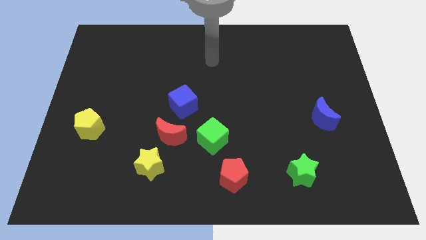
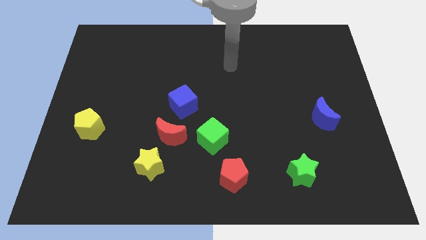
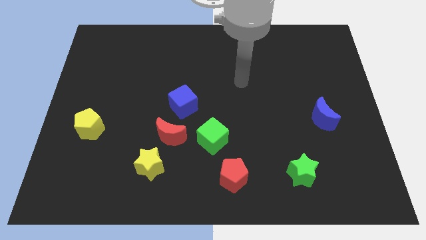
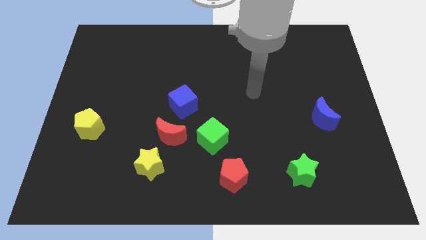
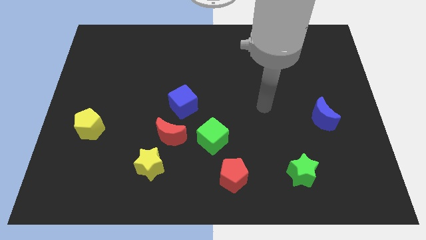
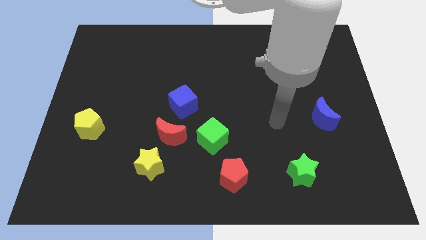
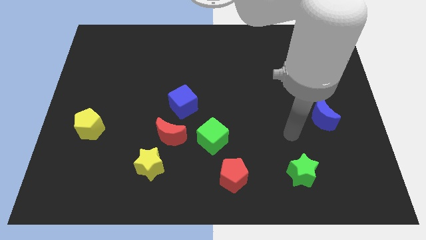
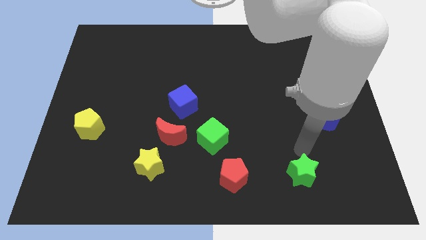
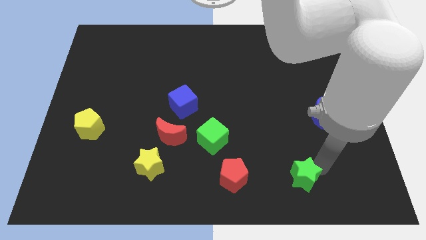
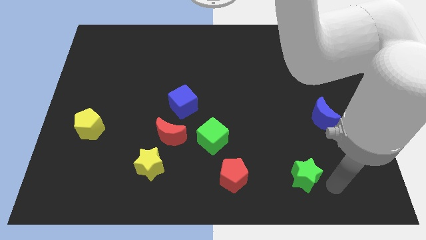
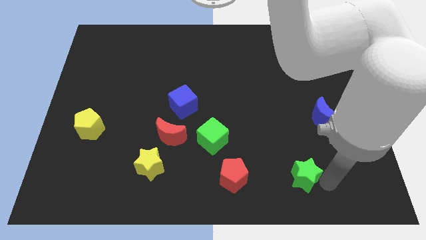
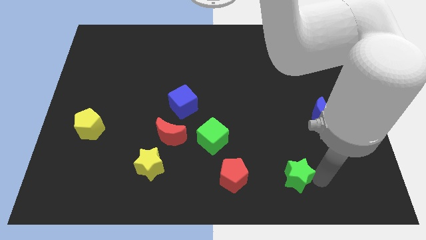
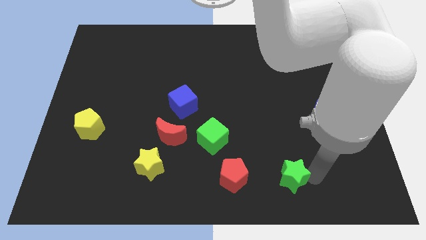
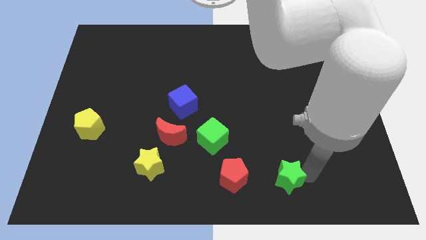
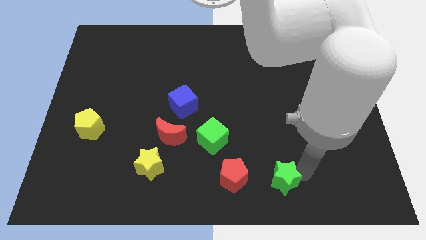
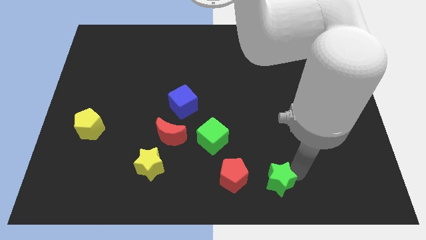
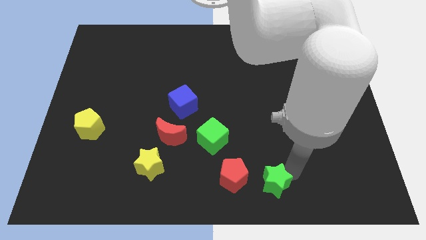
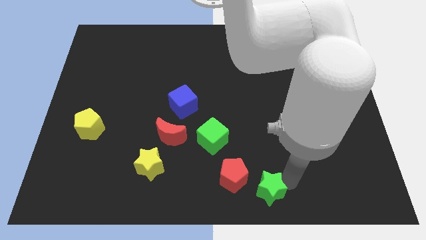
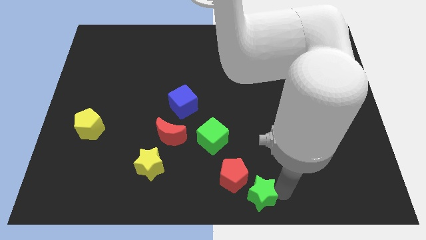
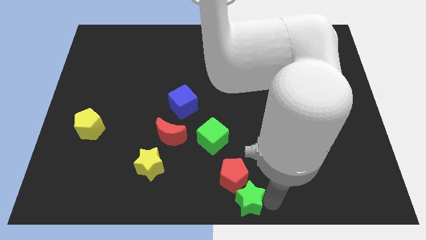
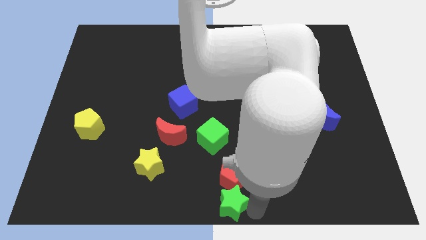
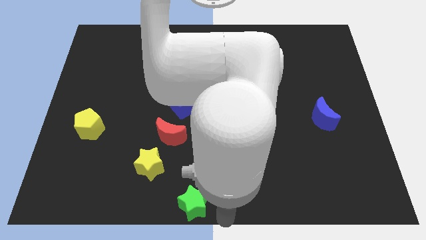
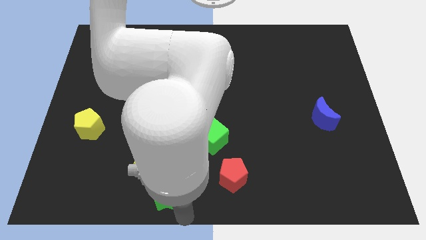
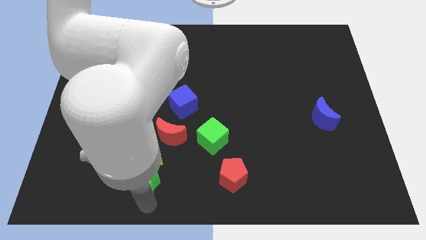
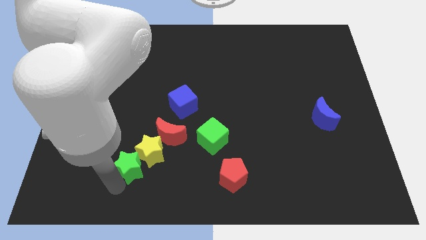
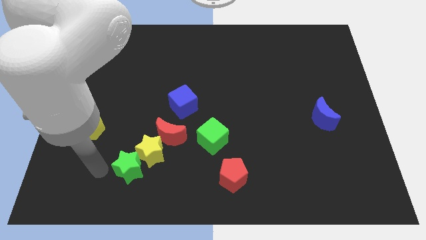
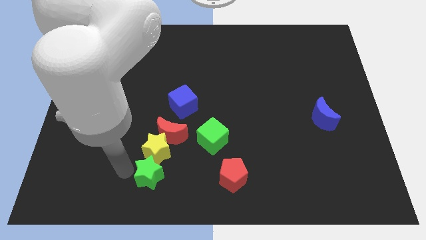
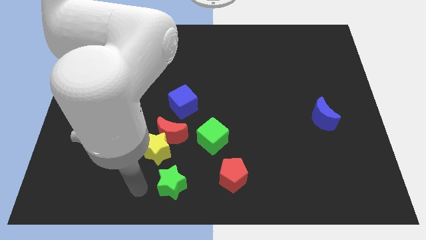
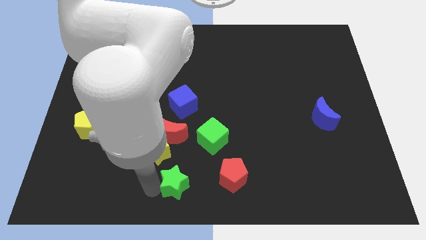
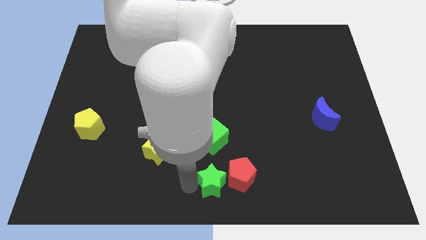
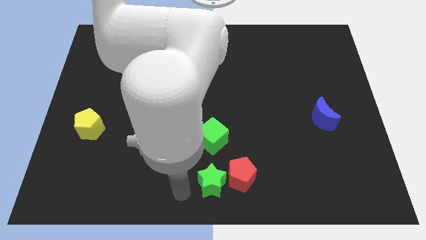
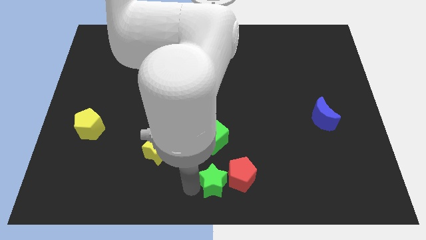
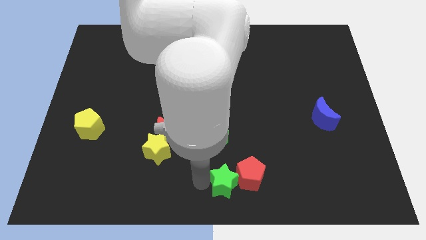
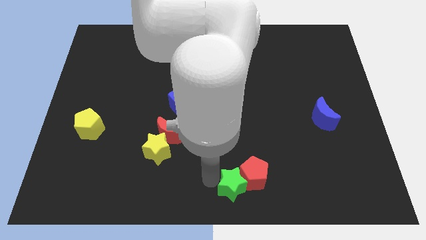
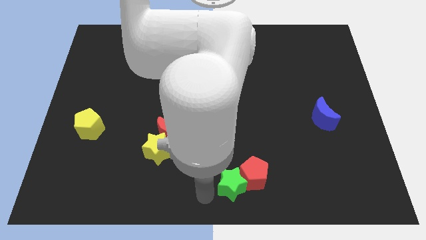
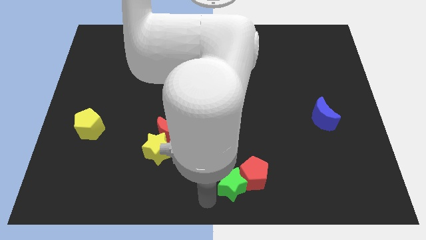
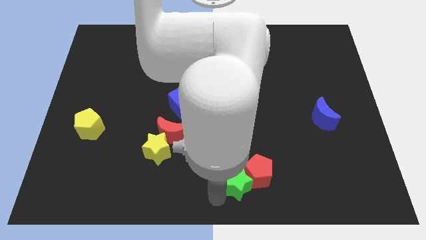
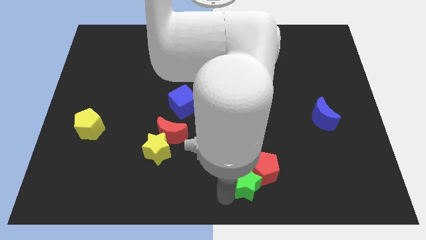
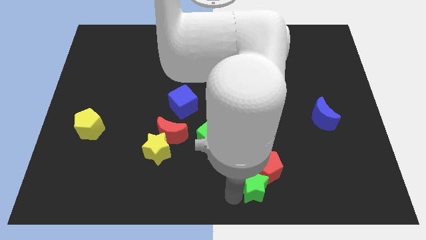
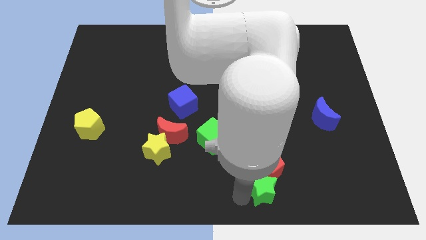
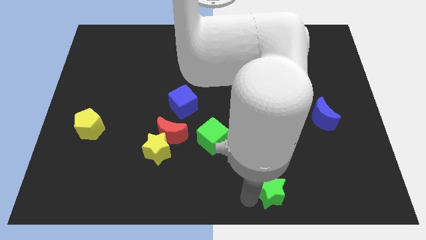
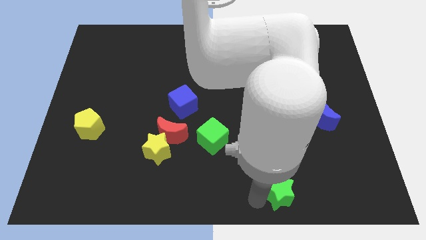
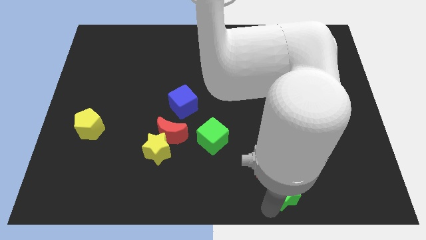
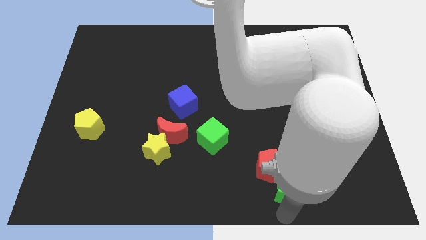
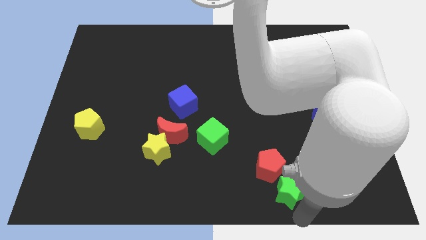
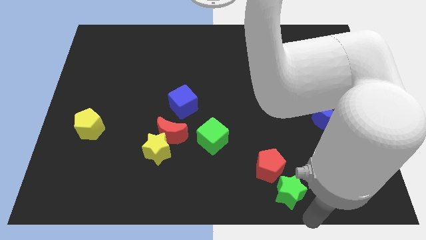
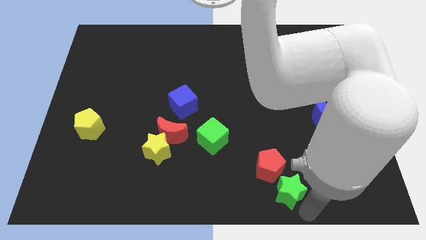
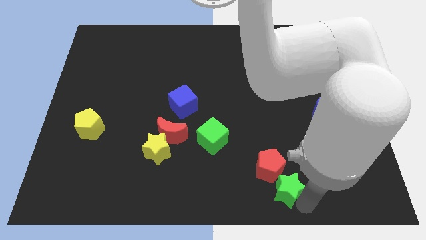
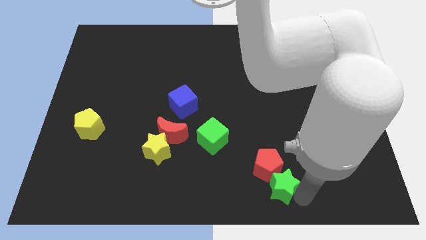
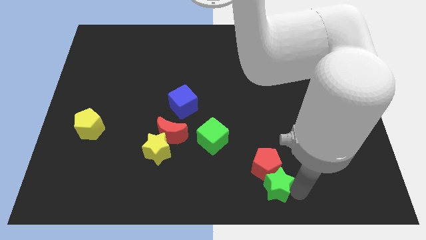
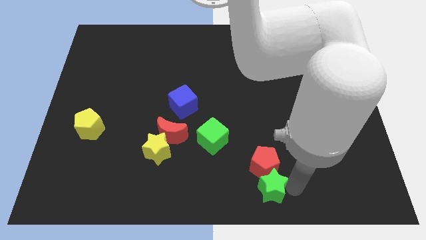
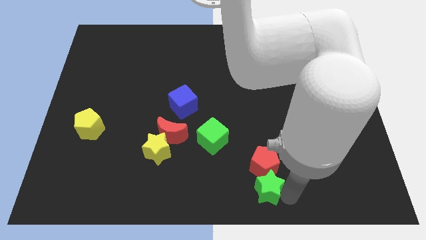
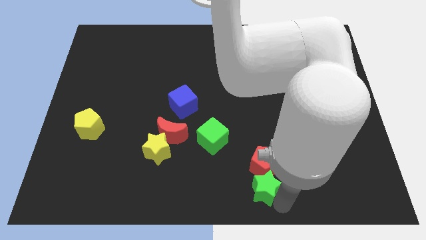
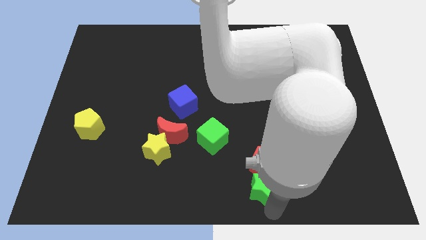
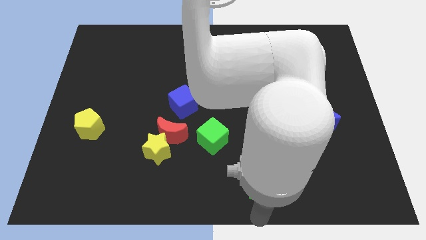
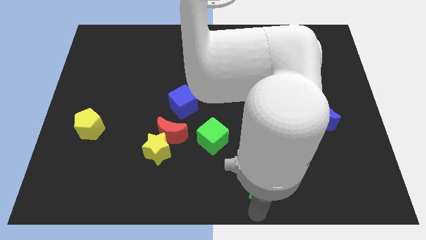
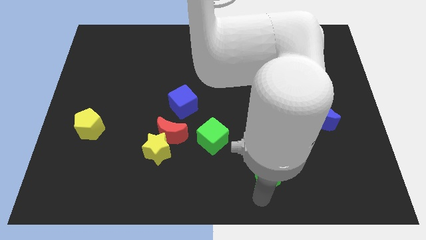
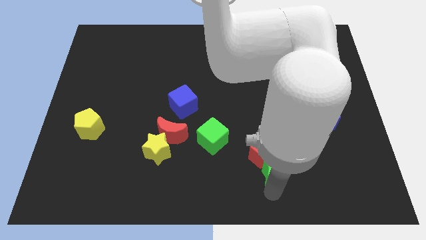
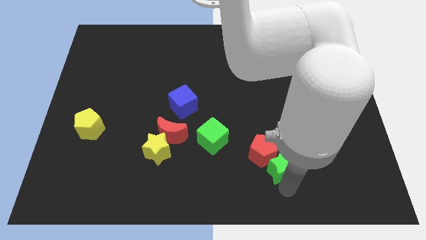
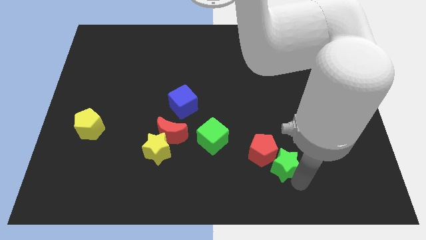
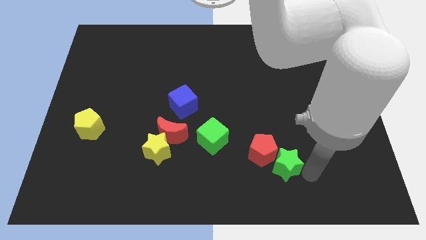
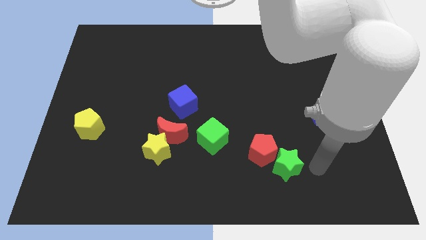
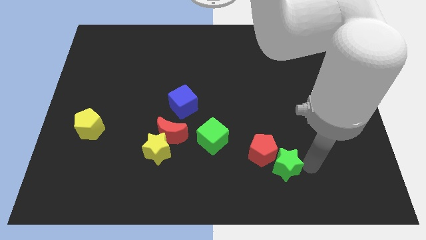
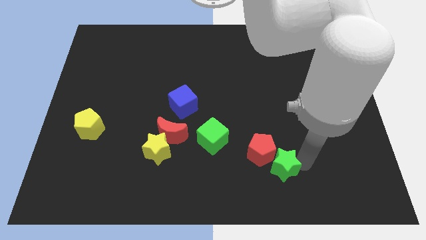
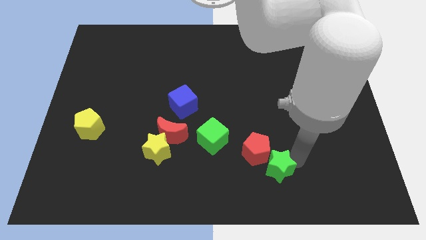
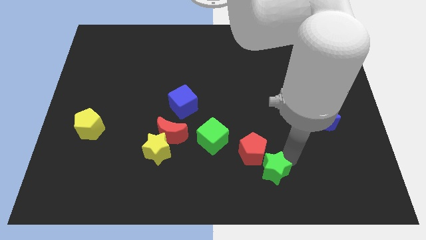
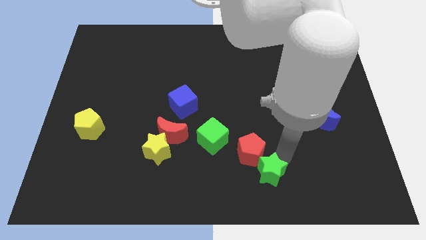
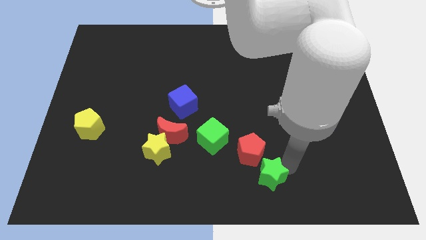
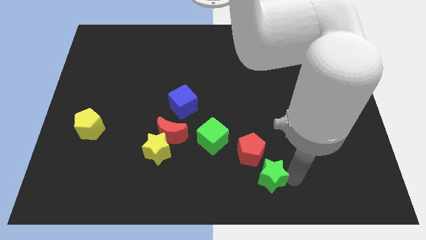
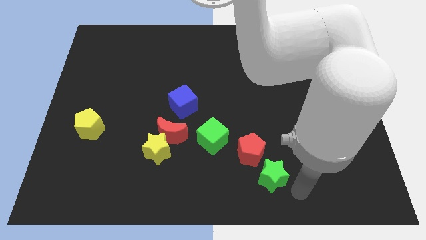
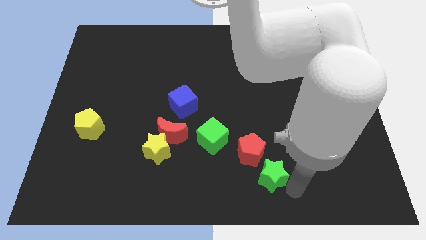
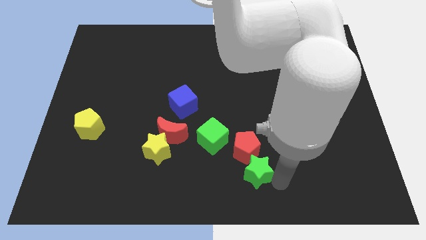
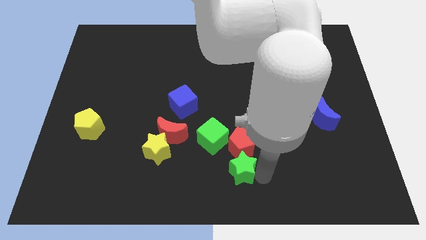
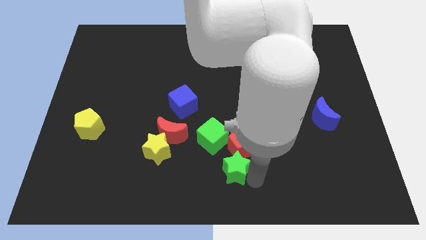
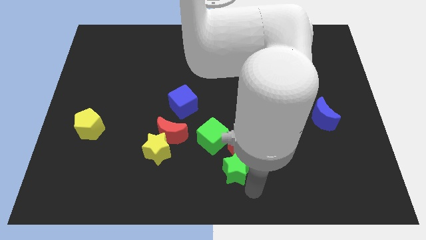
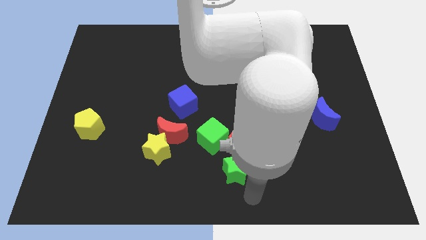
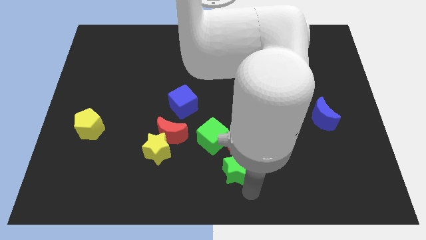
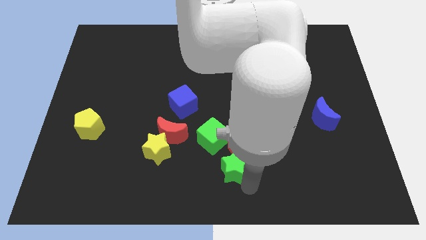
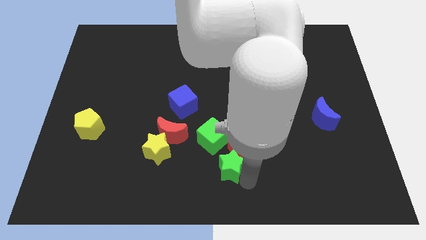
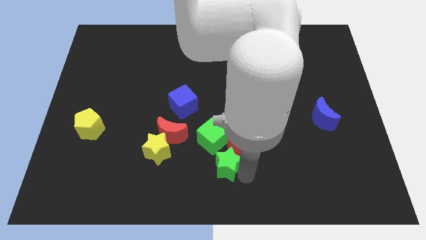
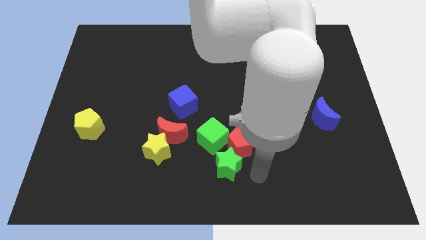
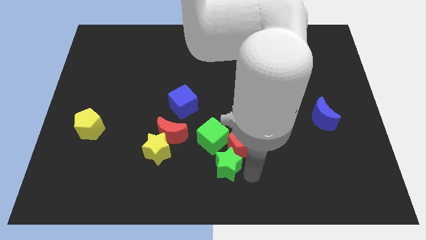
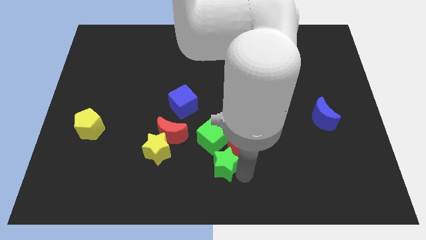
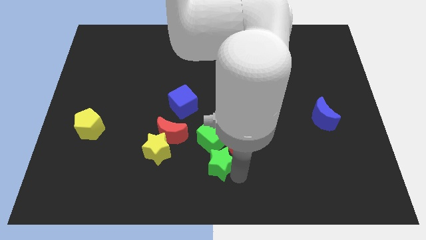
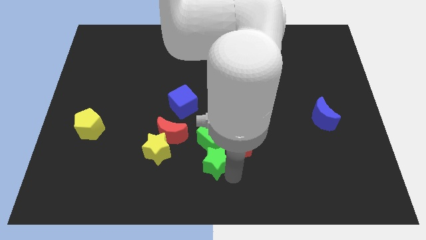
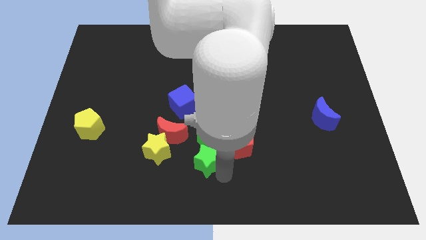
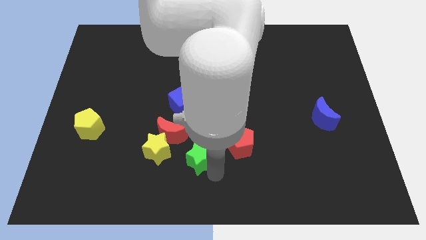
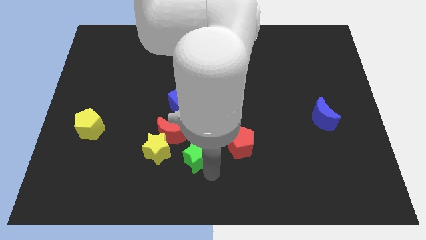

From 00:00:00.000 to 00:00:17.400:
push the green star to the bottom side of the blue cube
